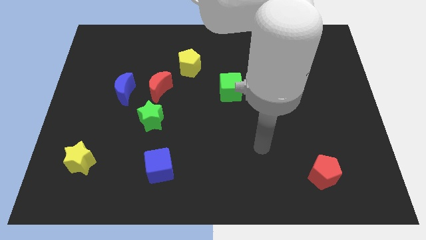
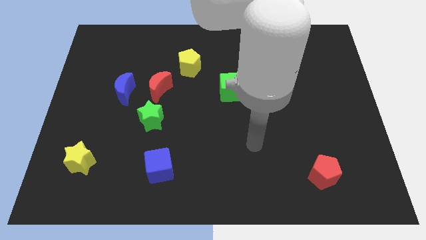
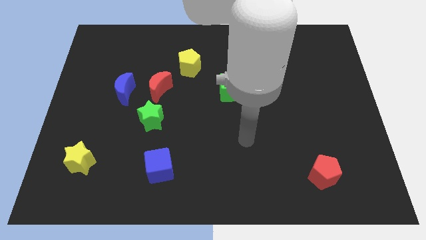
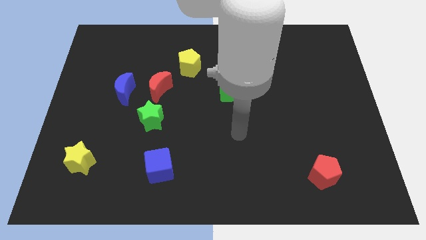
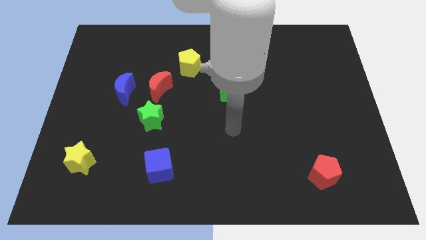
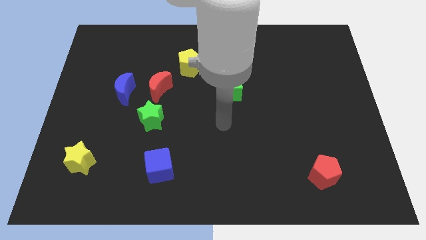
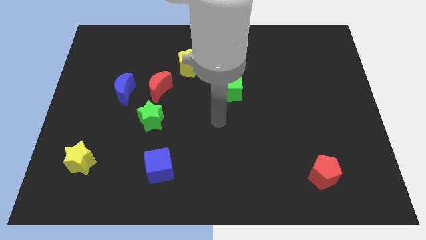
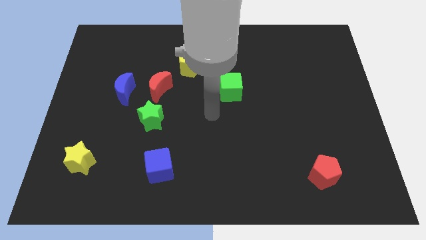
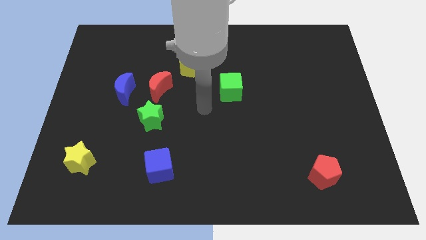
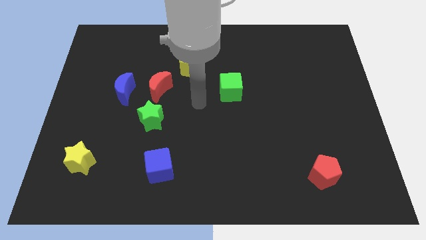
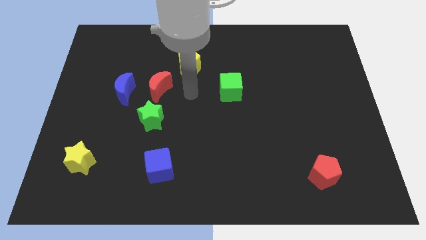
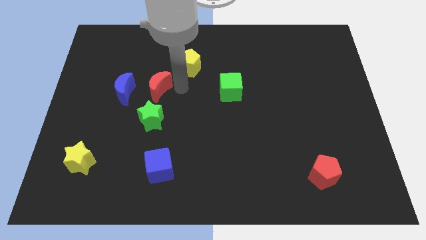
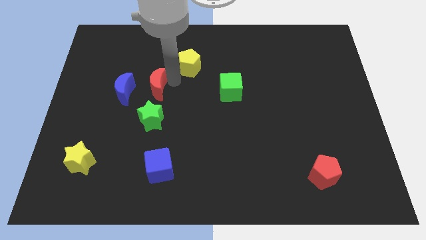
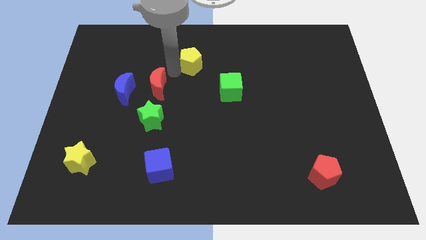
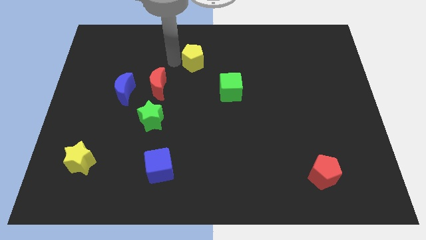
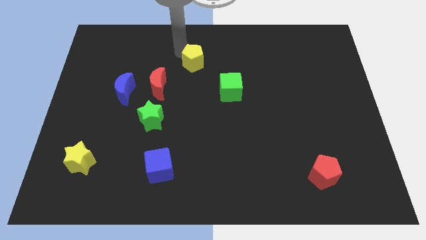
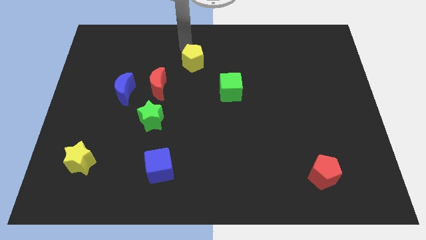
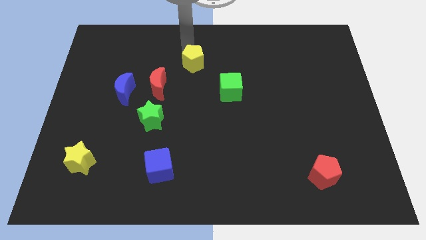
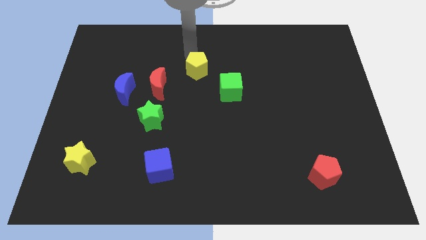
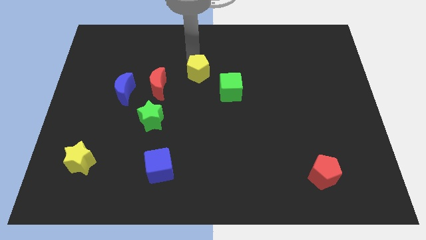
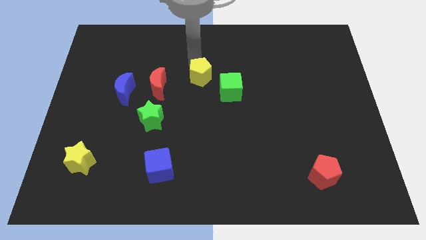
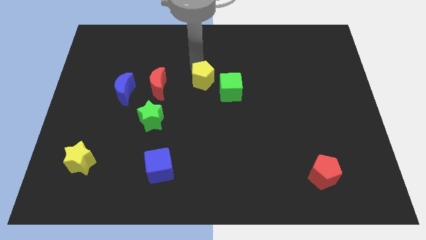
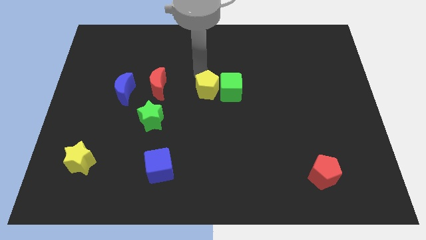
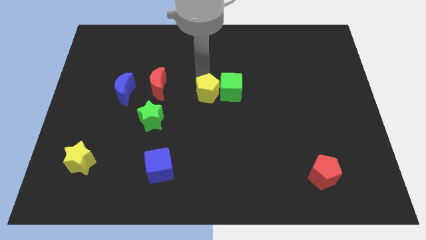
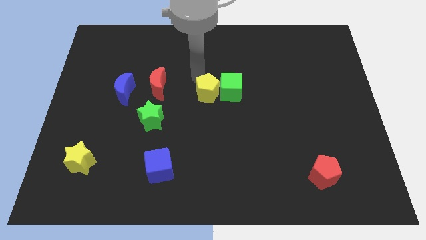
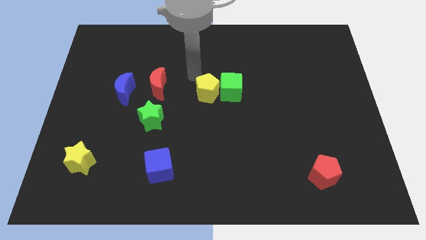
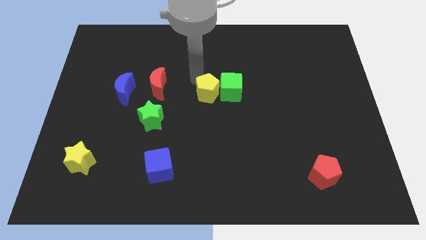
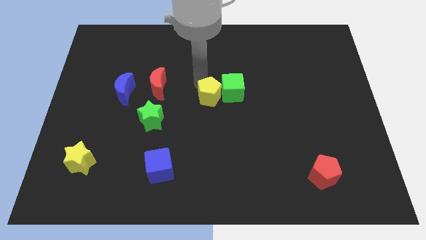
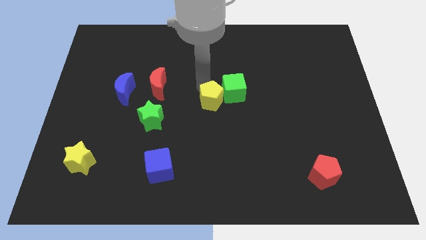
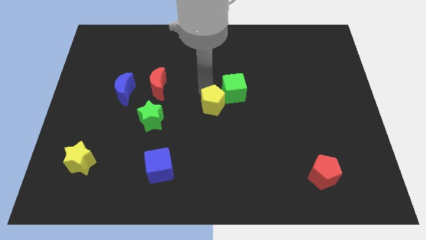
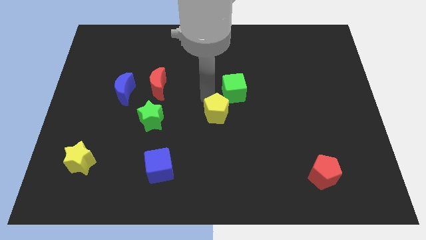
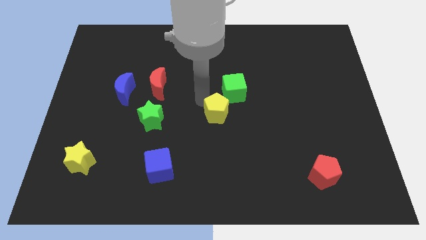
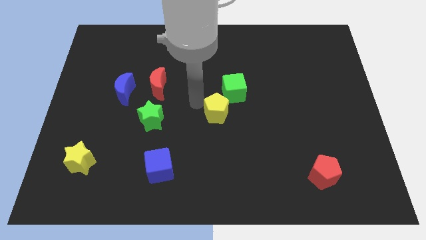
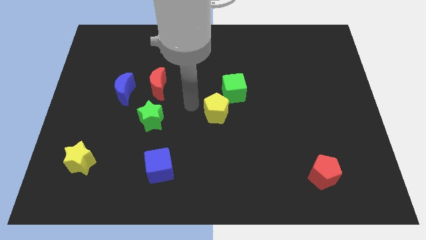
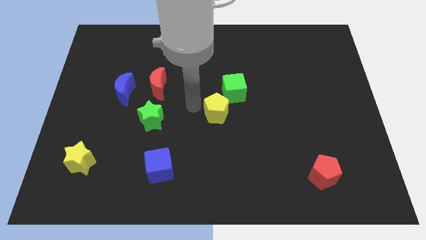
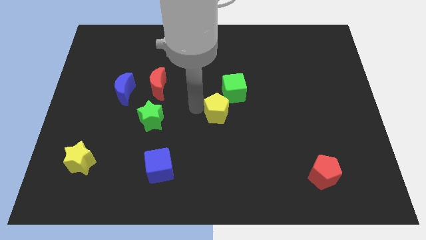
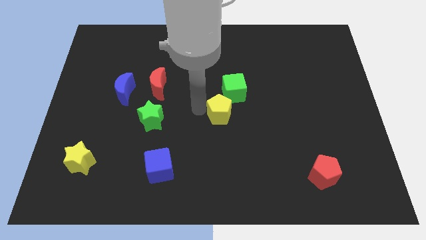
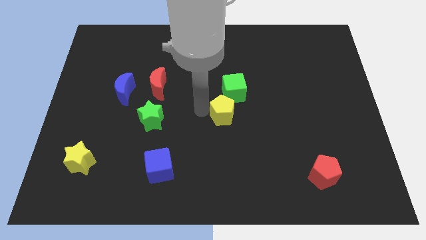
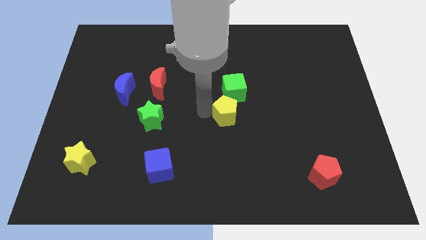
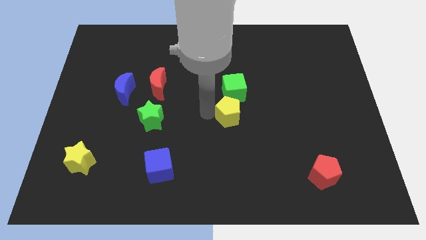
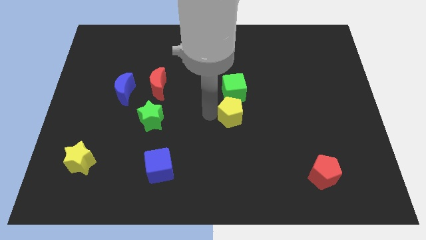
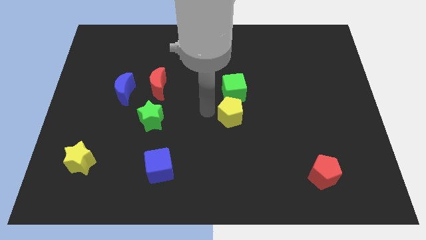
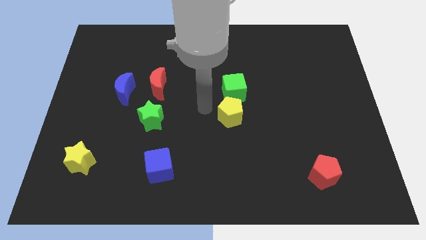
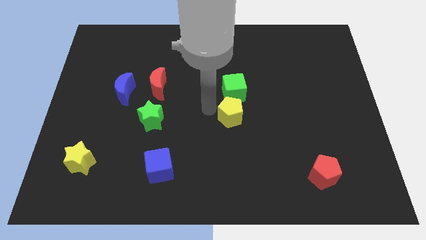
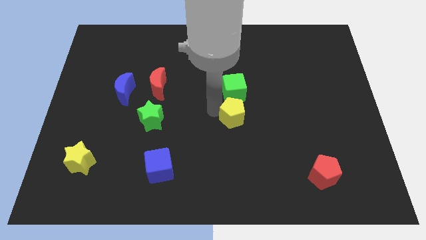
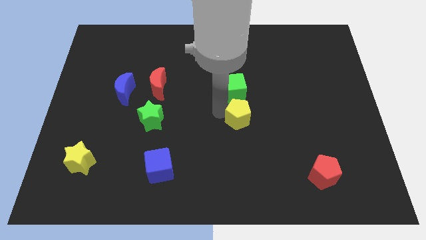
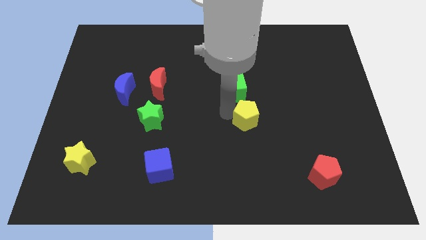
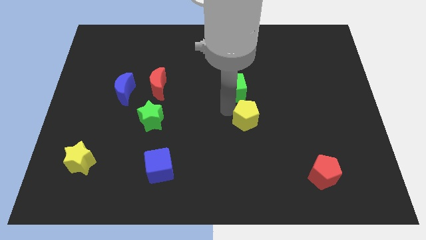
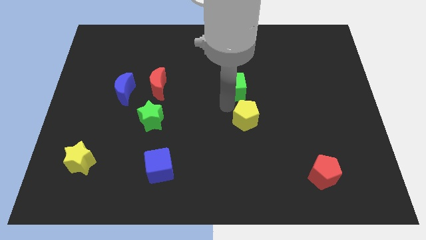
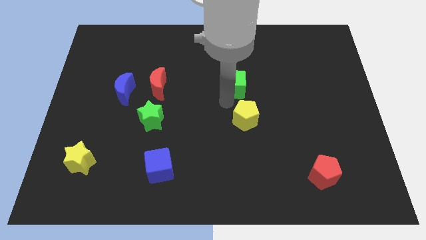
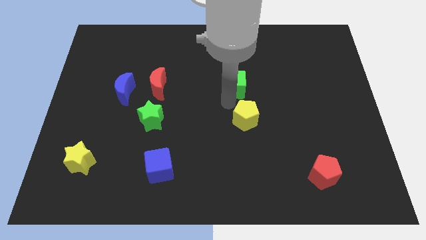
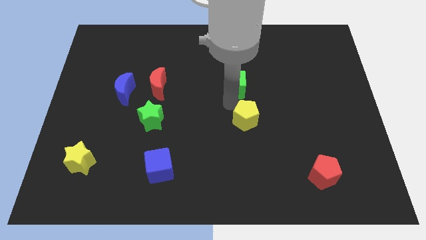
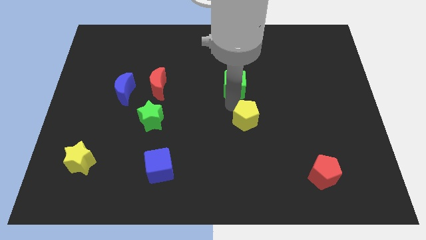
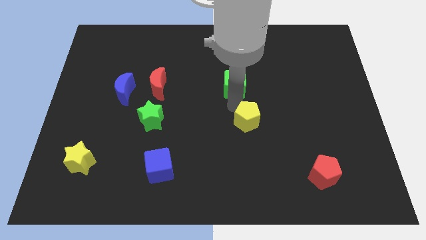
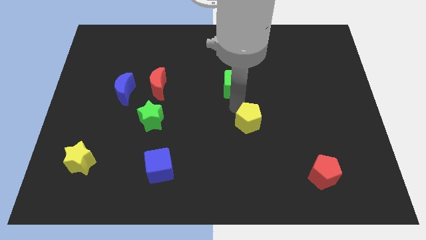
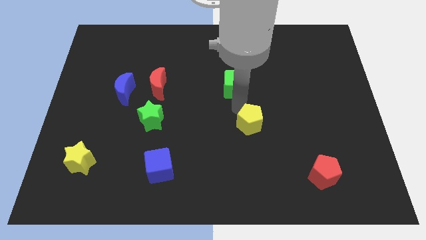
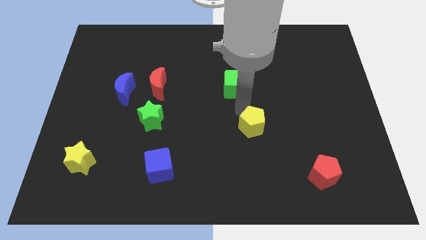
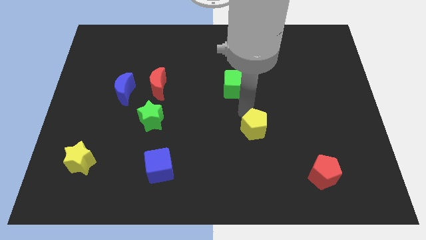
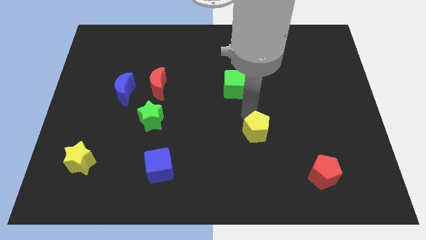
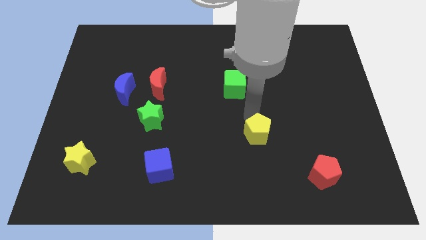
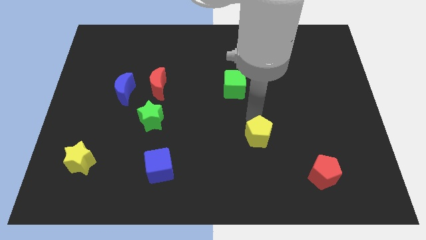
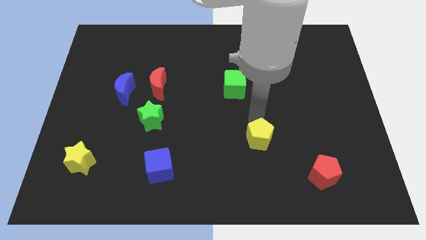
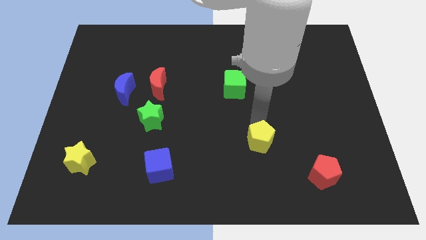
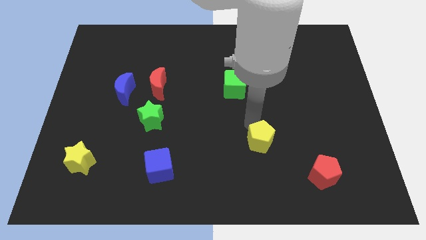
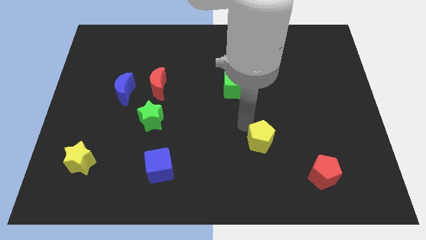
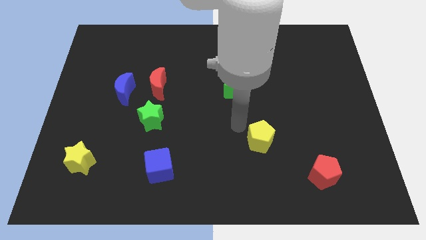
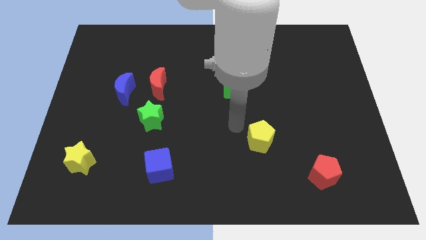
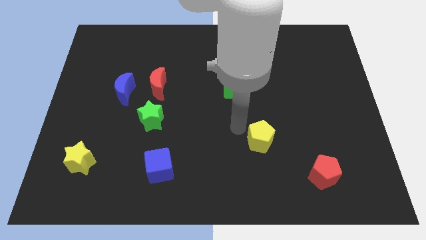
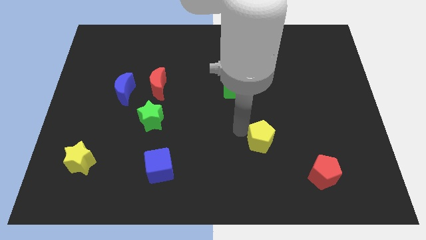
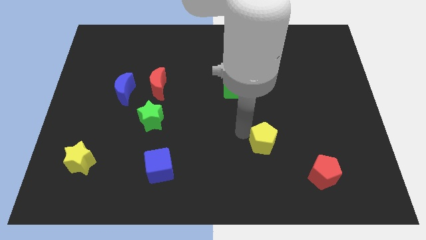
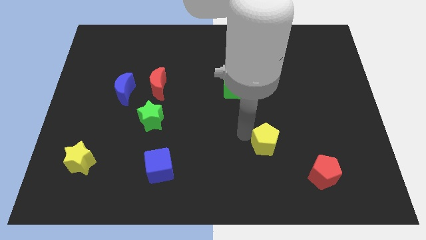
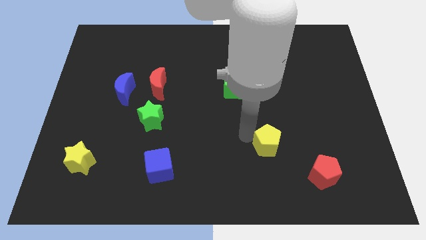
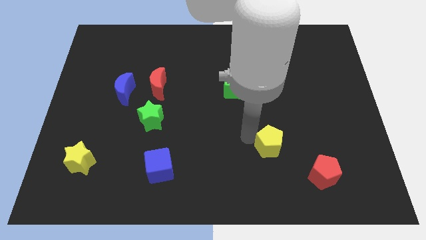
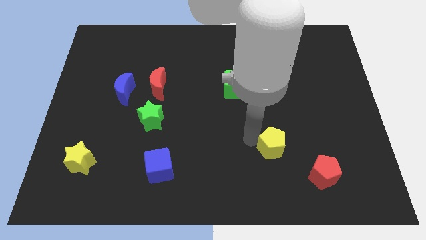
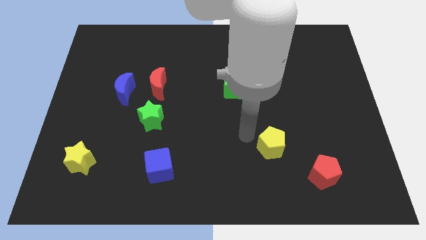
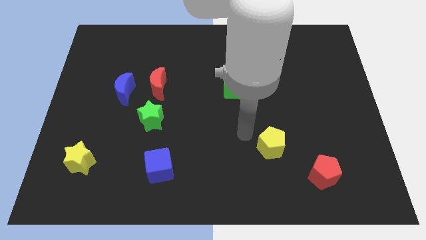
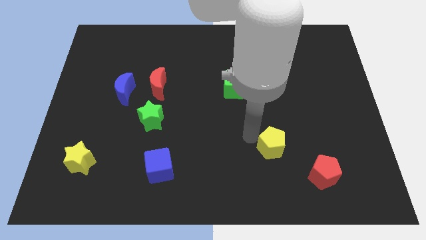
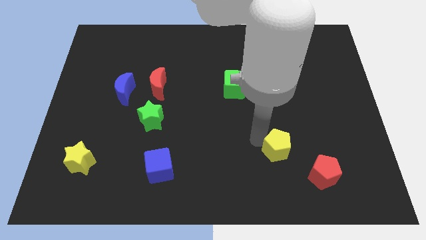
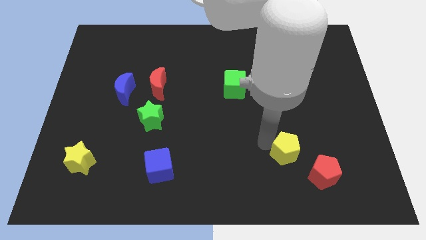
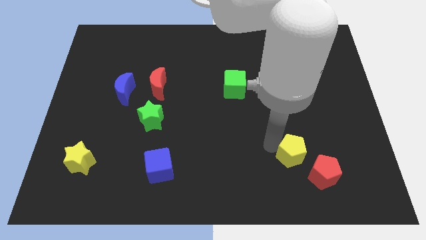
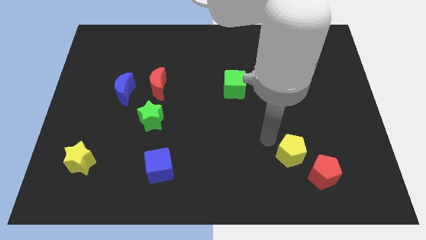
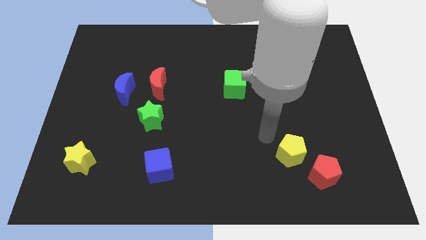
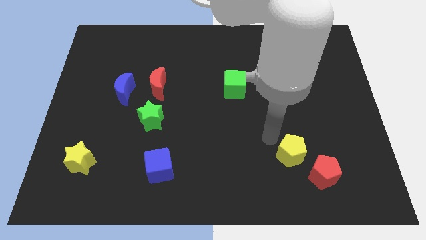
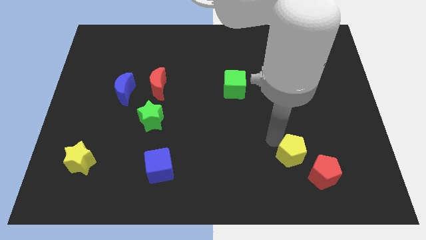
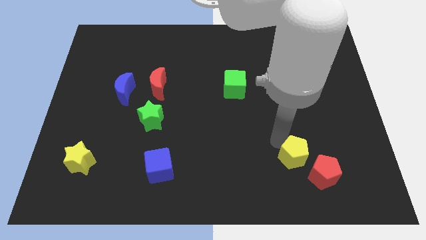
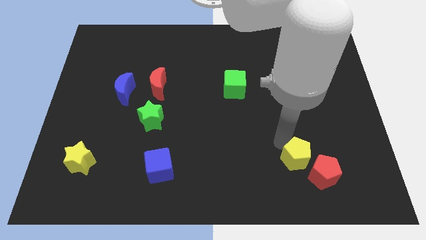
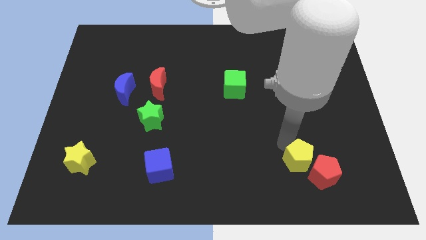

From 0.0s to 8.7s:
slide the yellow pentagon to the red pentagon
